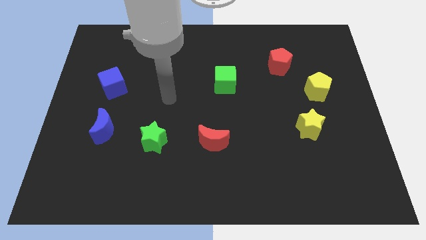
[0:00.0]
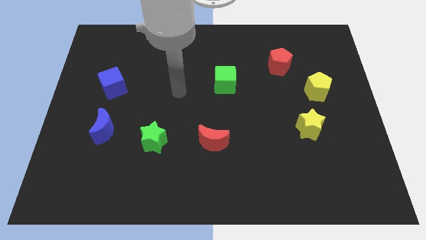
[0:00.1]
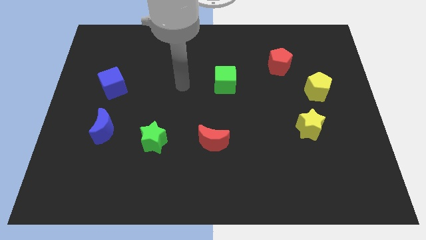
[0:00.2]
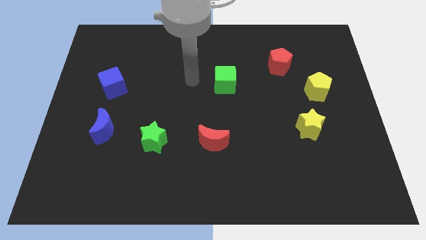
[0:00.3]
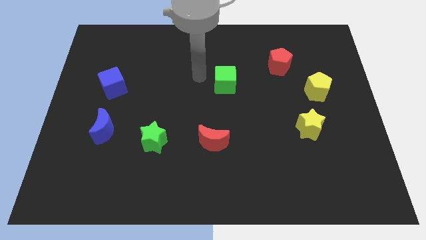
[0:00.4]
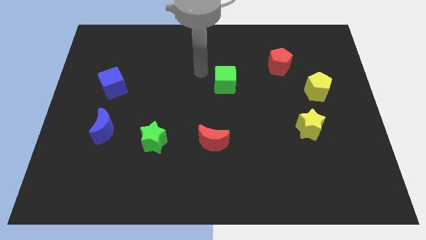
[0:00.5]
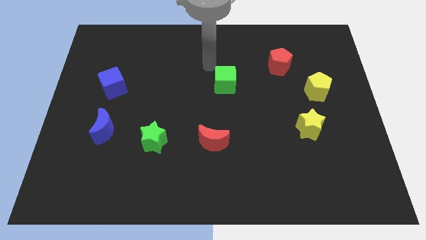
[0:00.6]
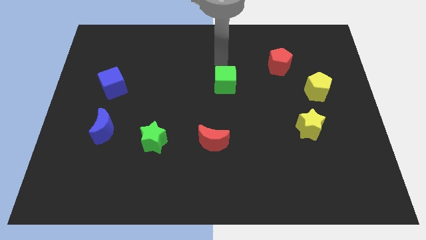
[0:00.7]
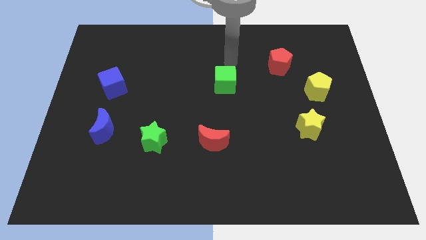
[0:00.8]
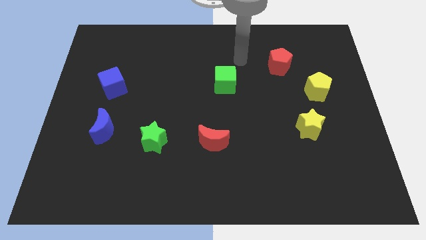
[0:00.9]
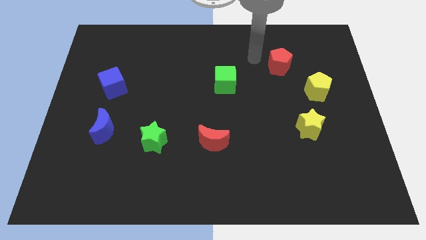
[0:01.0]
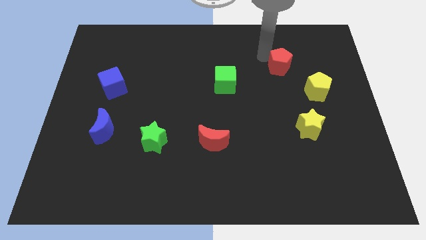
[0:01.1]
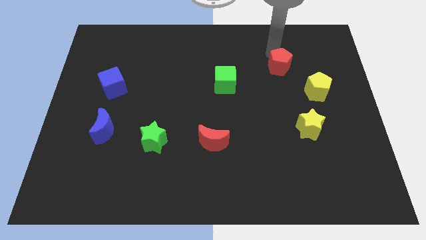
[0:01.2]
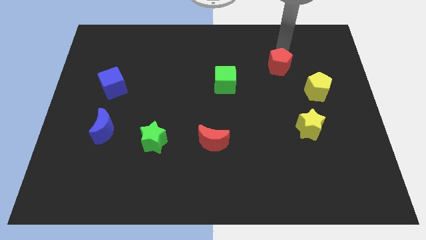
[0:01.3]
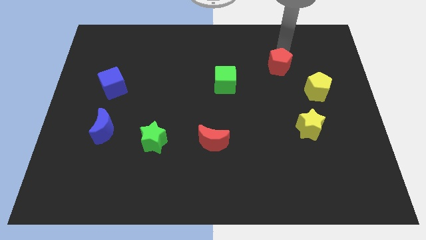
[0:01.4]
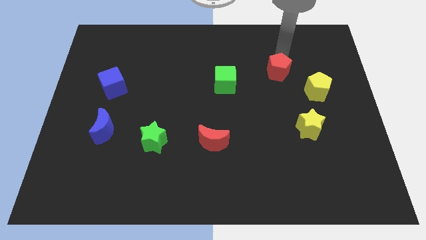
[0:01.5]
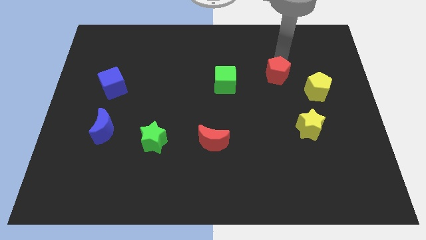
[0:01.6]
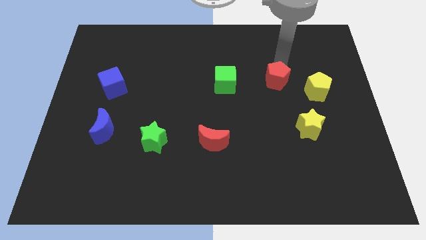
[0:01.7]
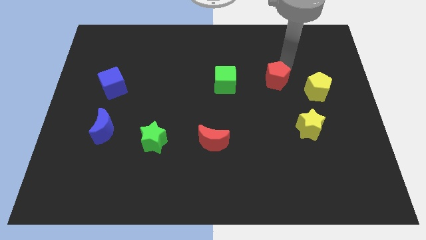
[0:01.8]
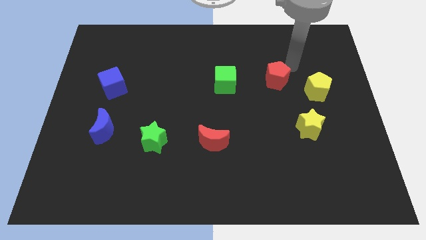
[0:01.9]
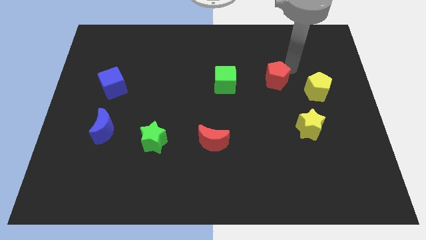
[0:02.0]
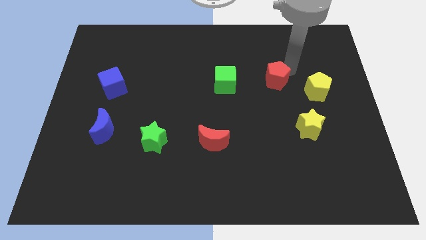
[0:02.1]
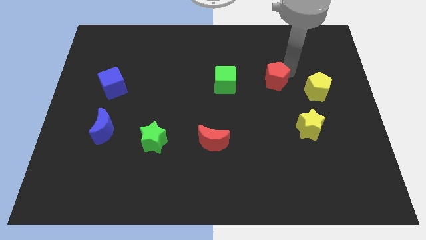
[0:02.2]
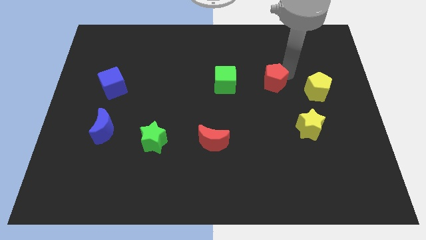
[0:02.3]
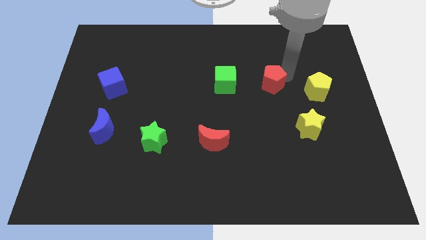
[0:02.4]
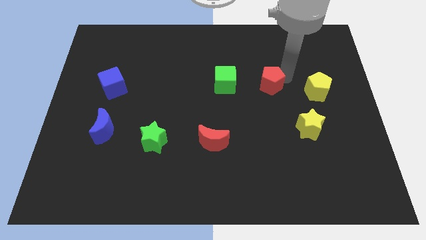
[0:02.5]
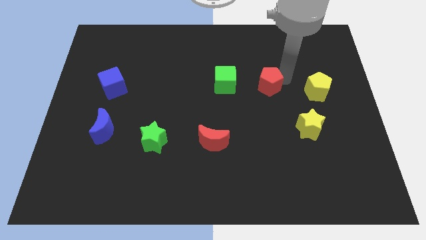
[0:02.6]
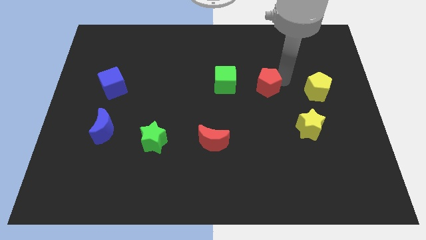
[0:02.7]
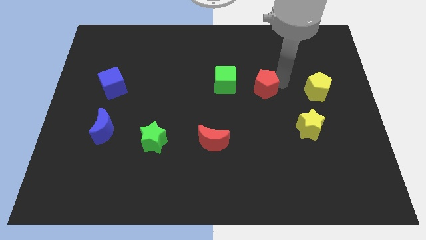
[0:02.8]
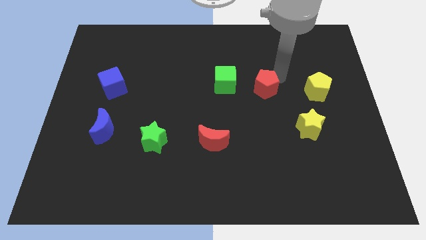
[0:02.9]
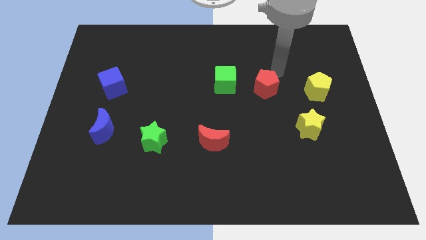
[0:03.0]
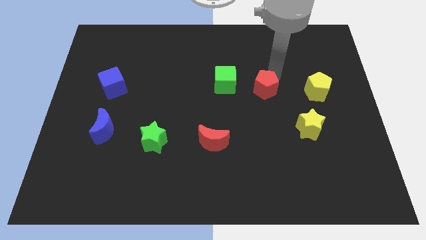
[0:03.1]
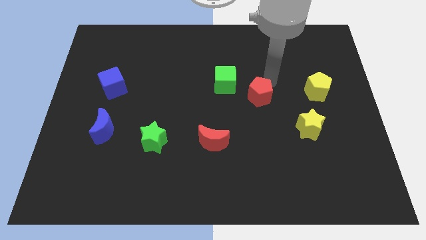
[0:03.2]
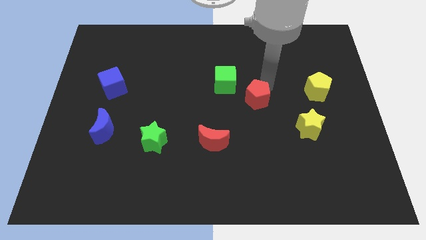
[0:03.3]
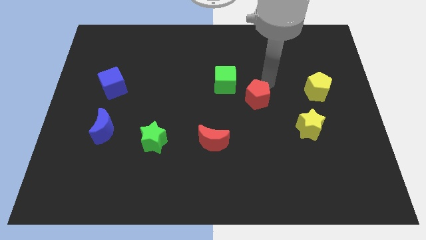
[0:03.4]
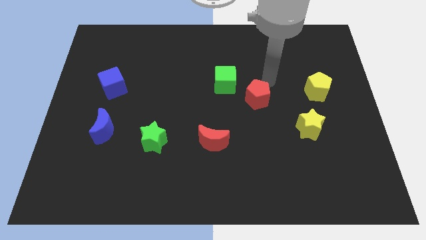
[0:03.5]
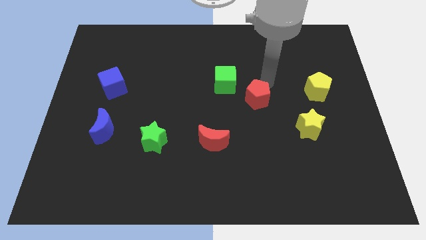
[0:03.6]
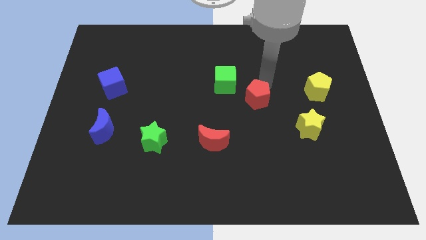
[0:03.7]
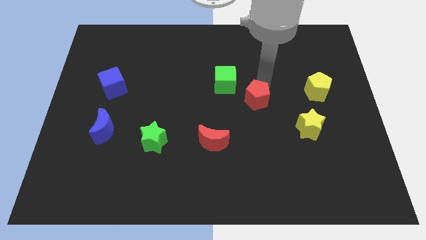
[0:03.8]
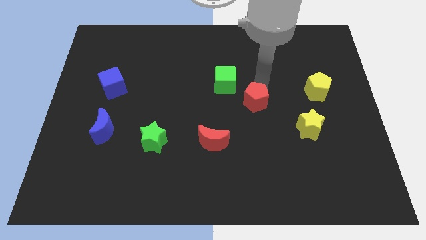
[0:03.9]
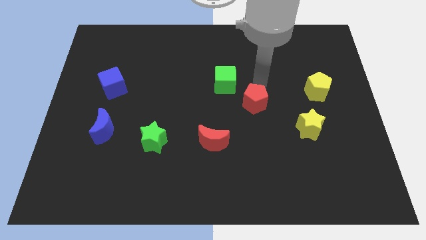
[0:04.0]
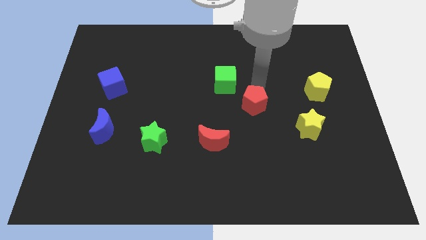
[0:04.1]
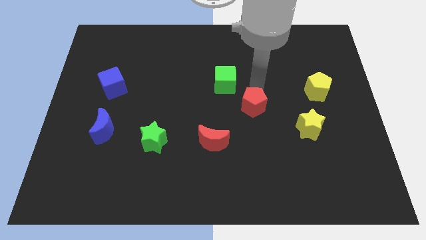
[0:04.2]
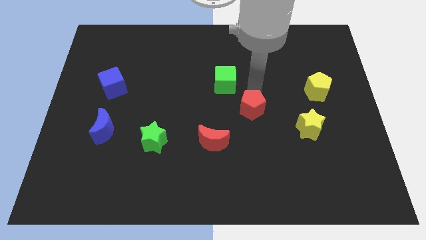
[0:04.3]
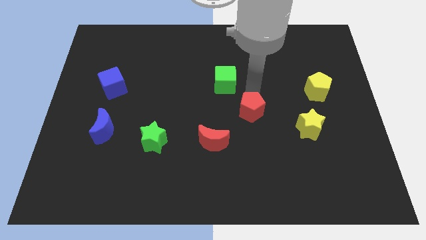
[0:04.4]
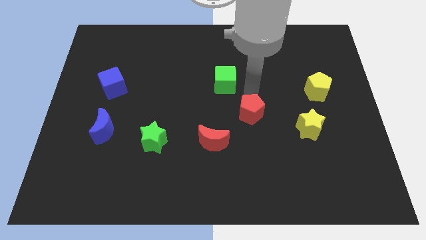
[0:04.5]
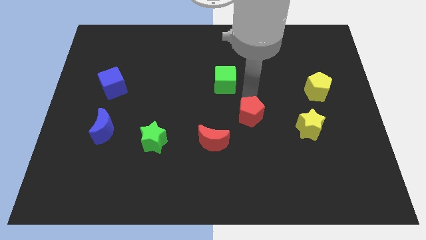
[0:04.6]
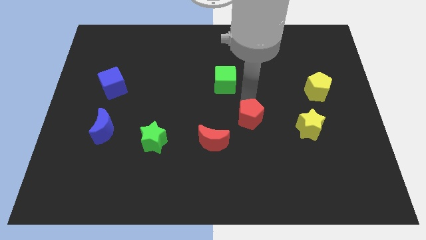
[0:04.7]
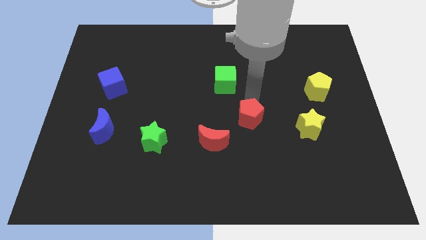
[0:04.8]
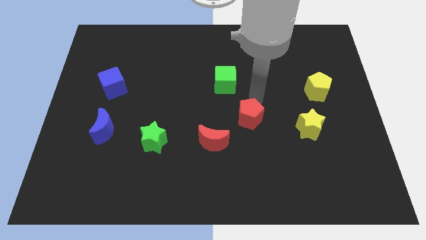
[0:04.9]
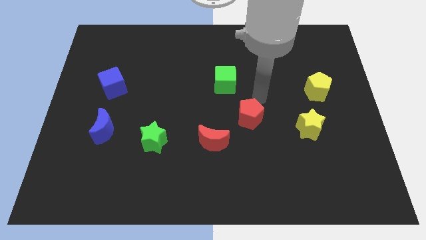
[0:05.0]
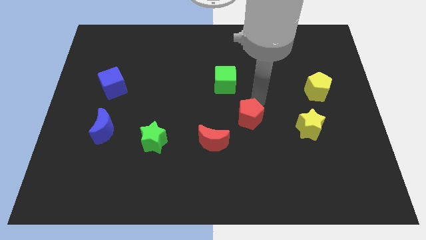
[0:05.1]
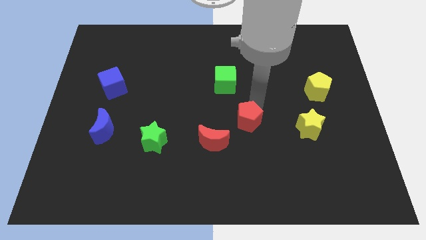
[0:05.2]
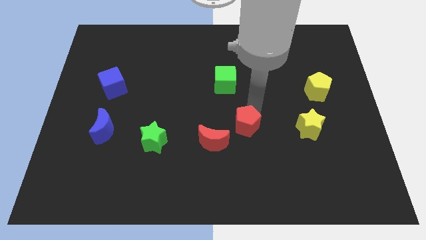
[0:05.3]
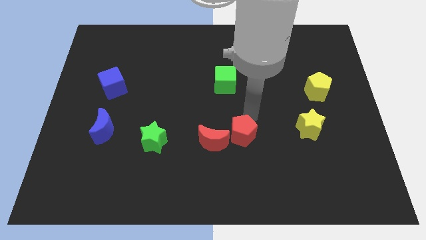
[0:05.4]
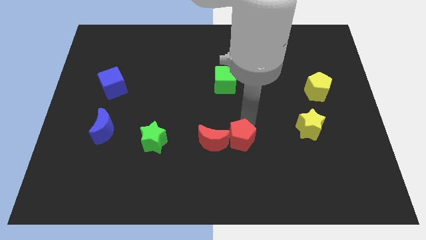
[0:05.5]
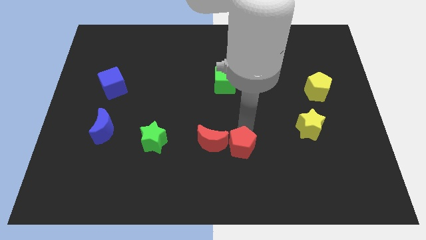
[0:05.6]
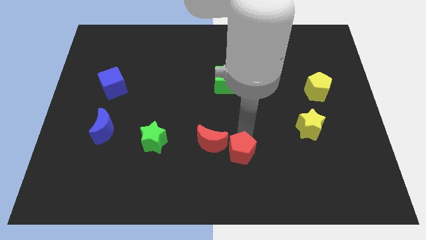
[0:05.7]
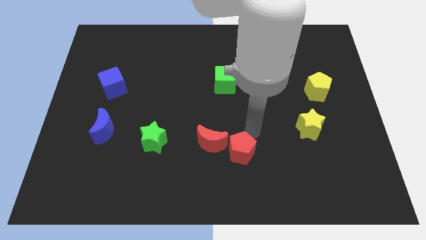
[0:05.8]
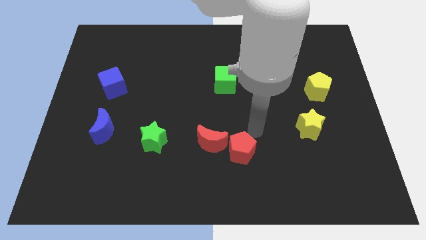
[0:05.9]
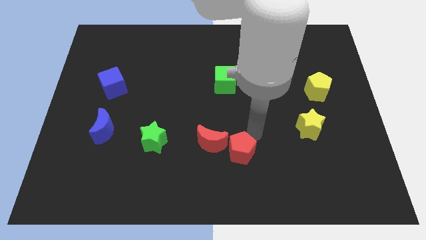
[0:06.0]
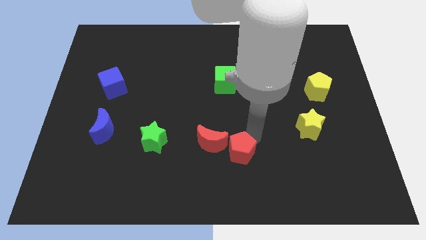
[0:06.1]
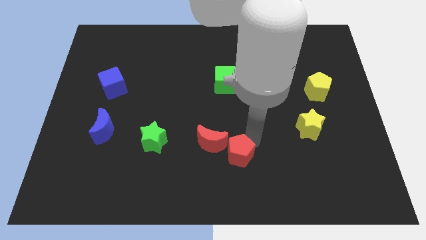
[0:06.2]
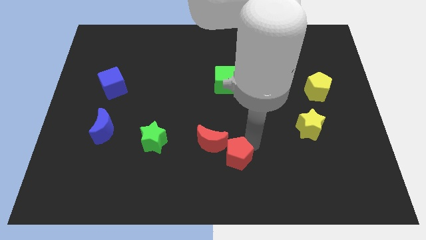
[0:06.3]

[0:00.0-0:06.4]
slide the red pentagon to the bottom side
